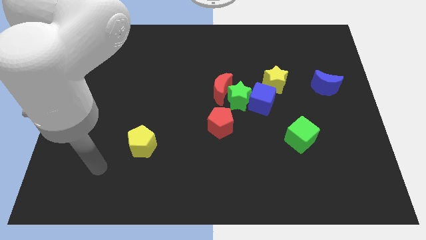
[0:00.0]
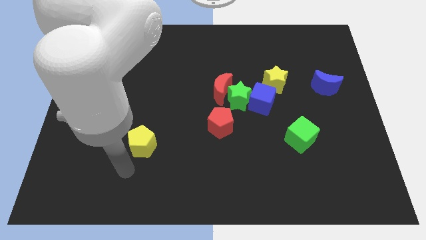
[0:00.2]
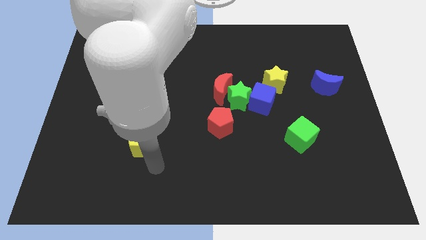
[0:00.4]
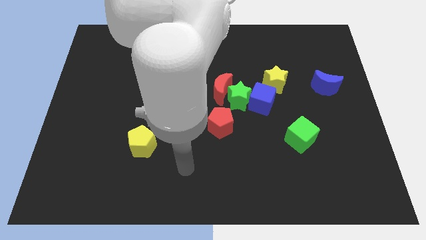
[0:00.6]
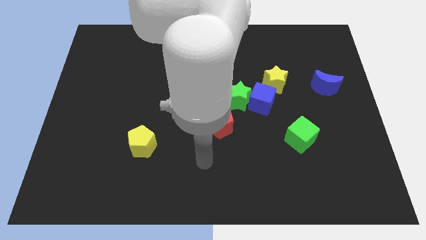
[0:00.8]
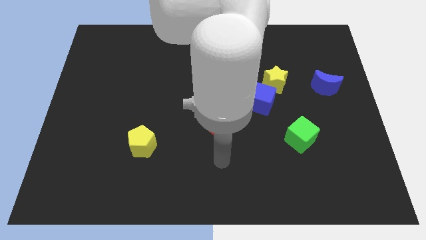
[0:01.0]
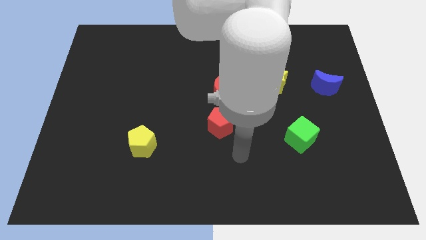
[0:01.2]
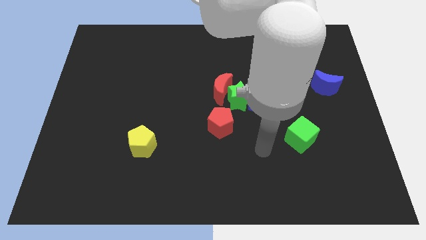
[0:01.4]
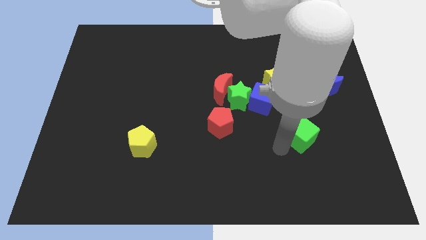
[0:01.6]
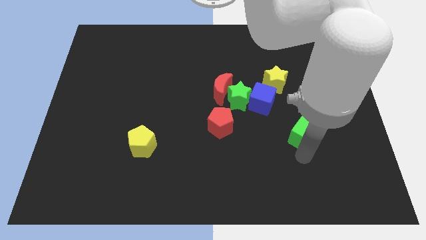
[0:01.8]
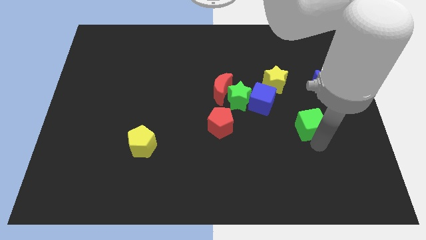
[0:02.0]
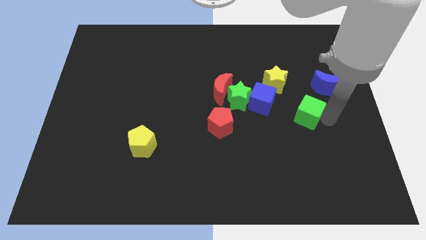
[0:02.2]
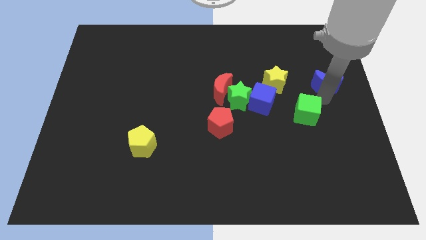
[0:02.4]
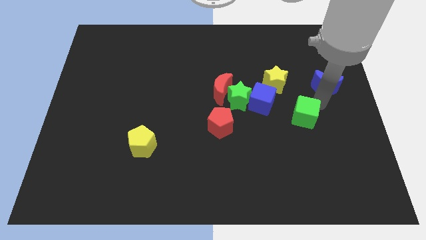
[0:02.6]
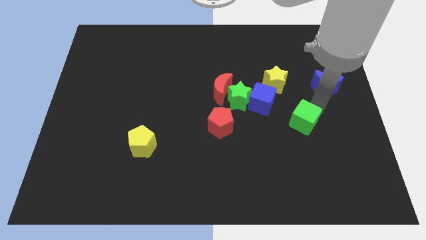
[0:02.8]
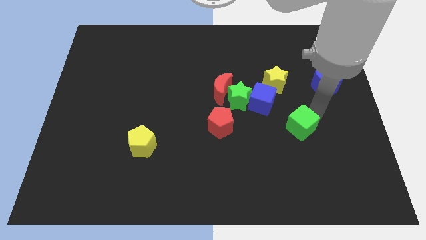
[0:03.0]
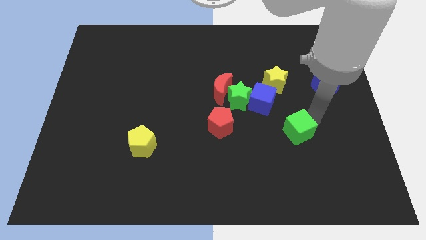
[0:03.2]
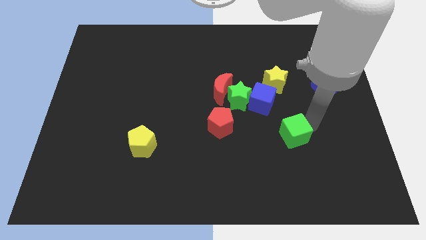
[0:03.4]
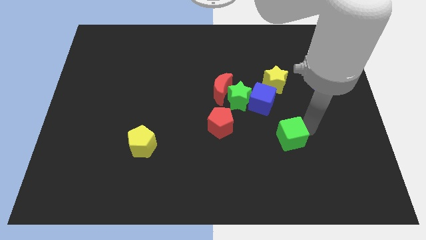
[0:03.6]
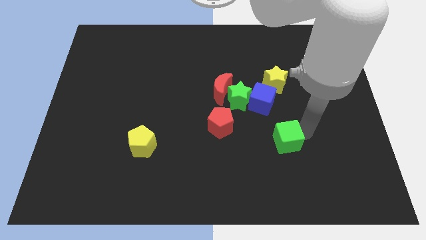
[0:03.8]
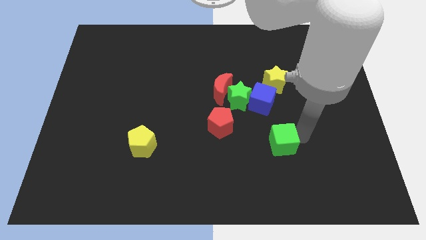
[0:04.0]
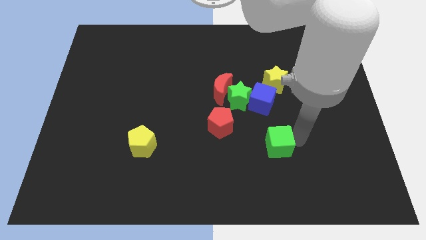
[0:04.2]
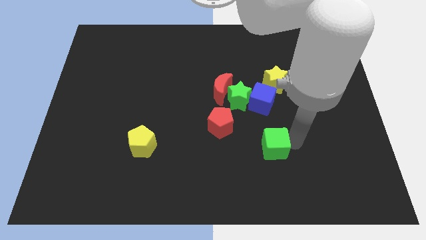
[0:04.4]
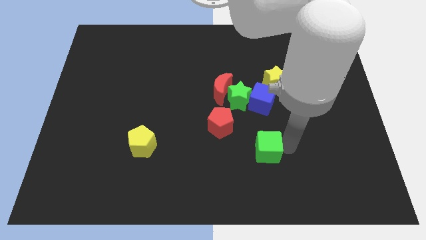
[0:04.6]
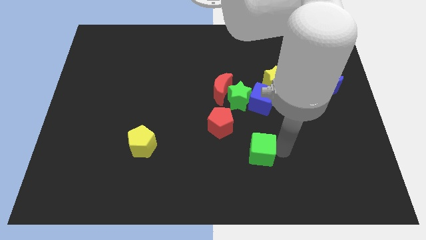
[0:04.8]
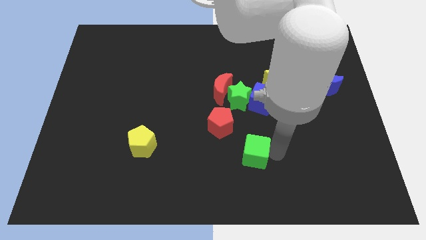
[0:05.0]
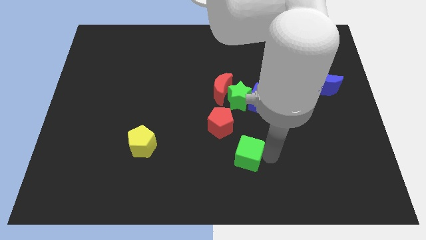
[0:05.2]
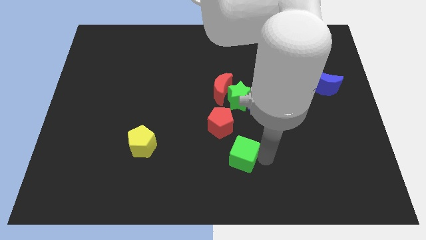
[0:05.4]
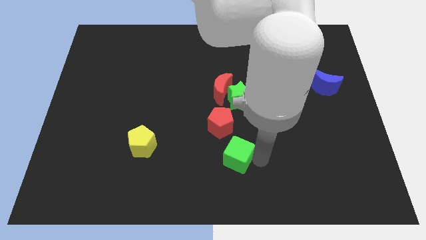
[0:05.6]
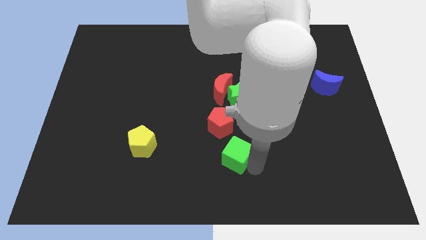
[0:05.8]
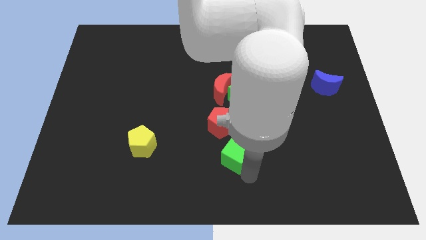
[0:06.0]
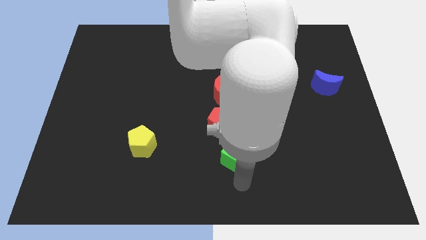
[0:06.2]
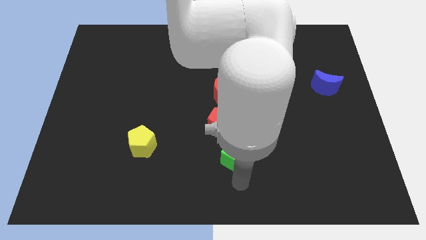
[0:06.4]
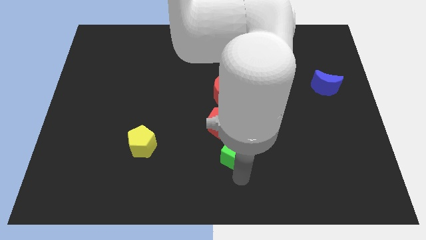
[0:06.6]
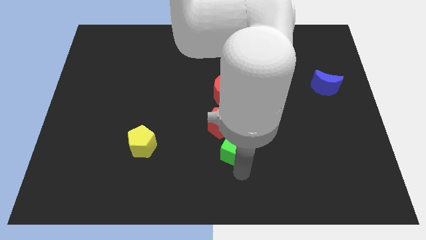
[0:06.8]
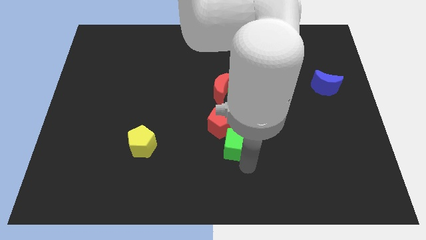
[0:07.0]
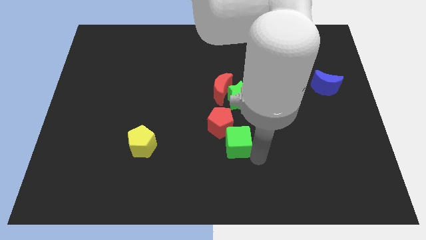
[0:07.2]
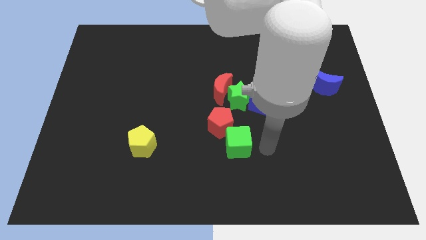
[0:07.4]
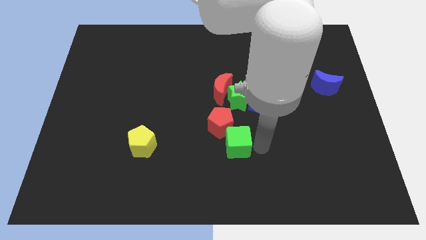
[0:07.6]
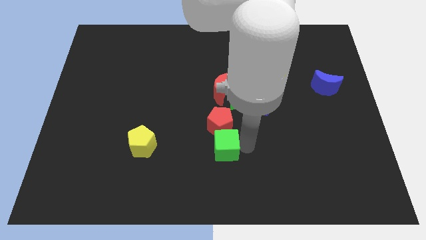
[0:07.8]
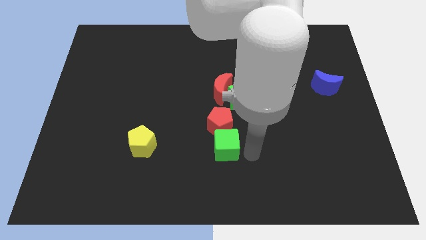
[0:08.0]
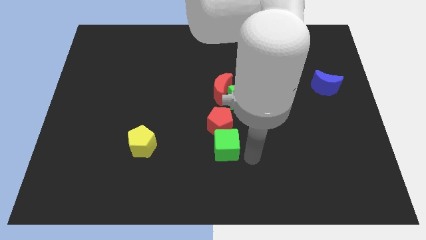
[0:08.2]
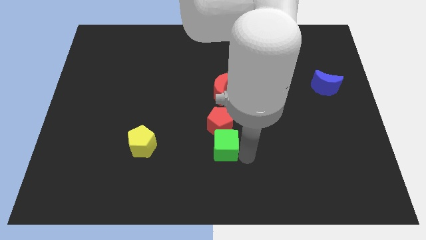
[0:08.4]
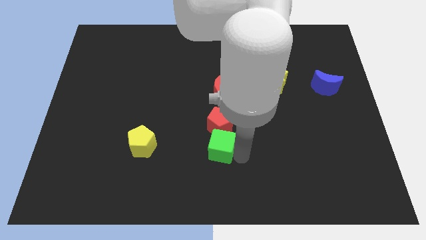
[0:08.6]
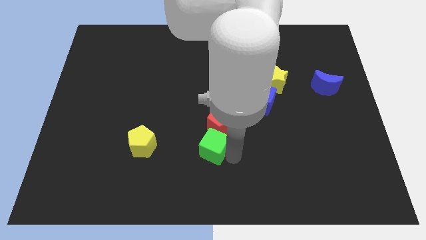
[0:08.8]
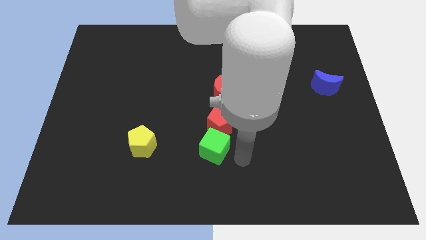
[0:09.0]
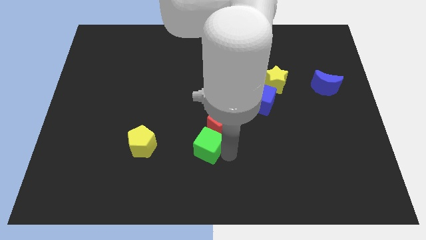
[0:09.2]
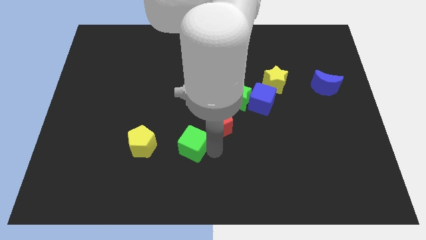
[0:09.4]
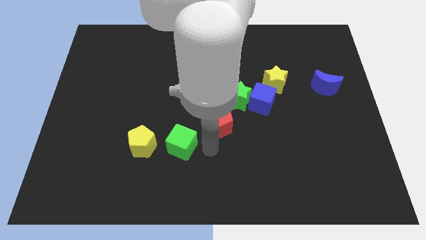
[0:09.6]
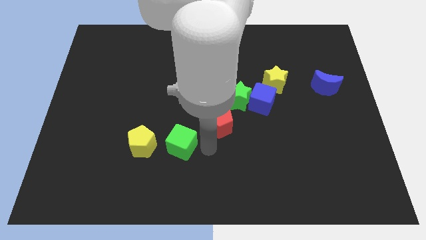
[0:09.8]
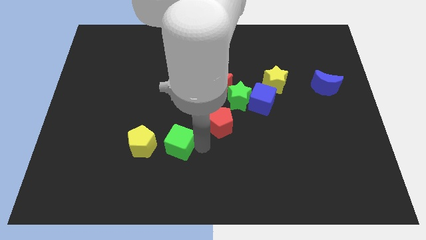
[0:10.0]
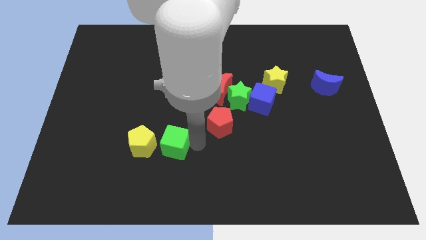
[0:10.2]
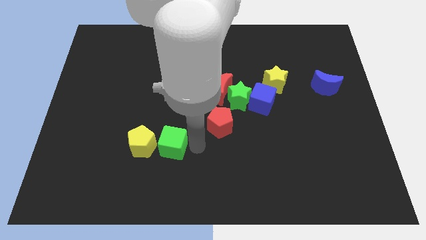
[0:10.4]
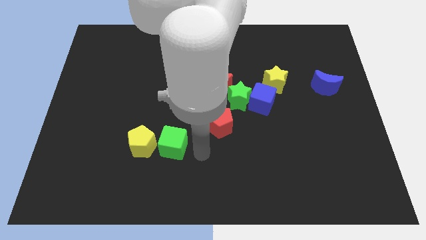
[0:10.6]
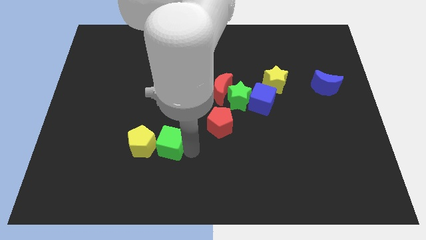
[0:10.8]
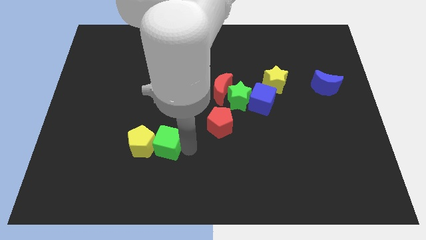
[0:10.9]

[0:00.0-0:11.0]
move the green cube next to the yellow pentagon

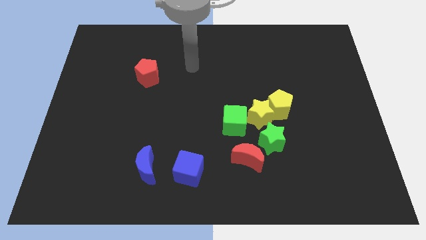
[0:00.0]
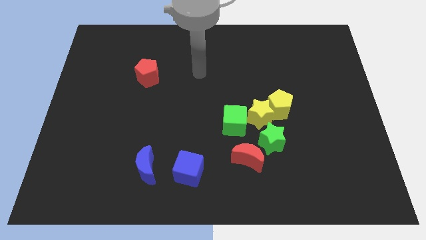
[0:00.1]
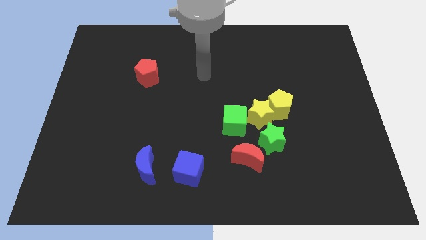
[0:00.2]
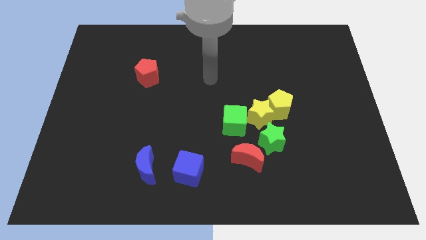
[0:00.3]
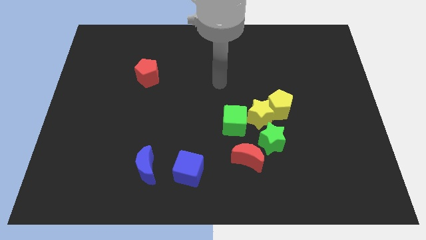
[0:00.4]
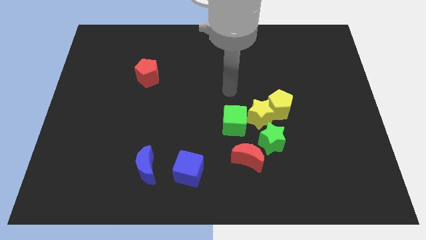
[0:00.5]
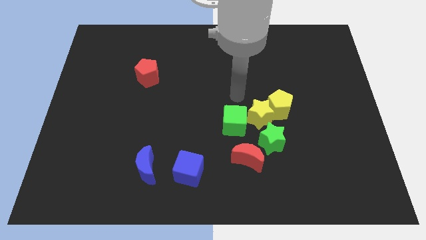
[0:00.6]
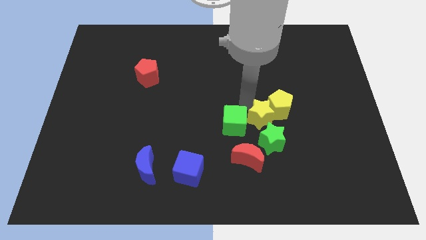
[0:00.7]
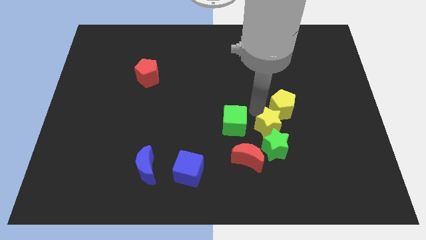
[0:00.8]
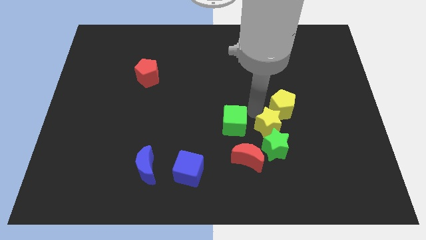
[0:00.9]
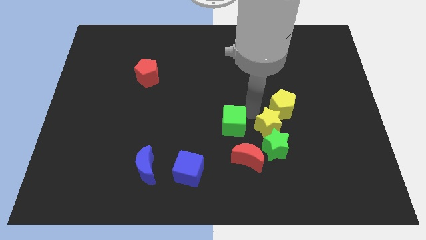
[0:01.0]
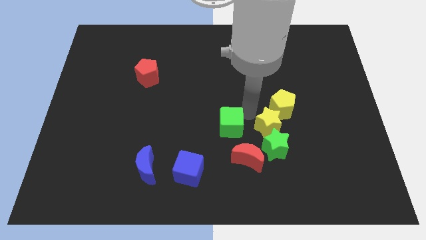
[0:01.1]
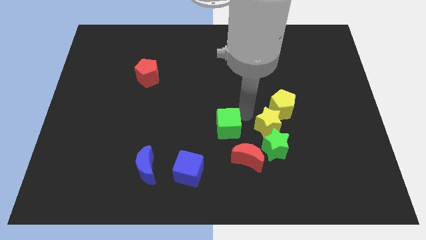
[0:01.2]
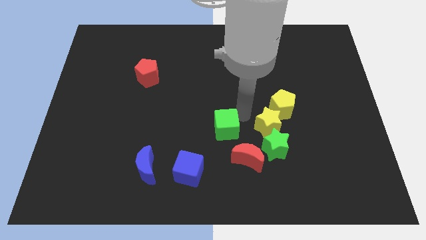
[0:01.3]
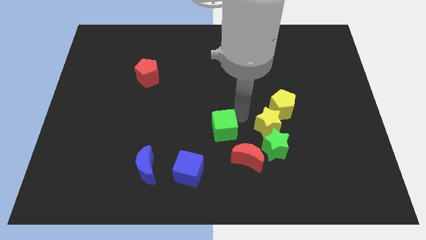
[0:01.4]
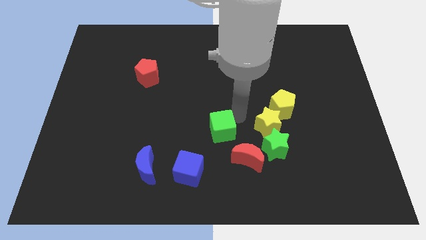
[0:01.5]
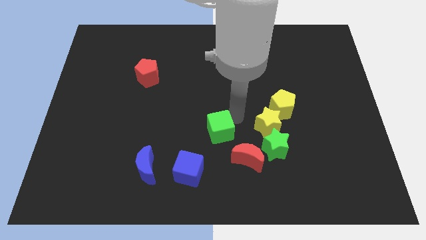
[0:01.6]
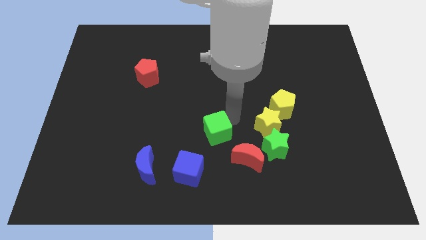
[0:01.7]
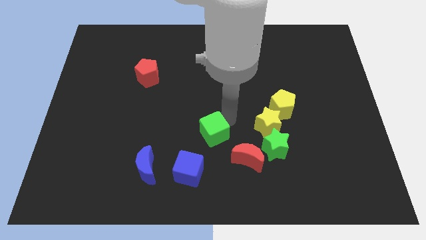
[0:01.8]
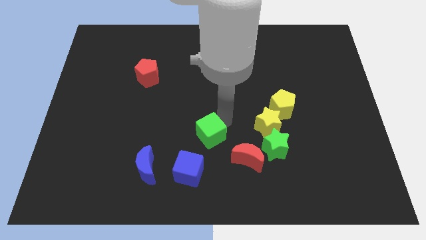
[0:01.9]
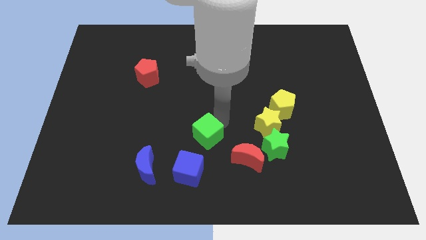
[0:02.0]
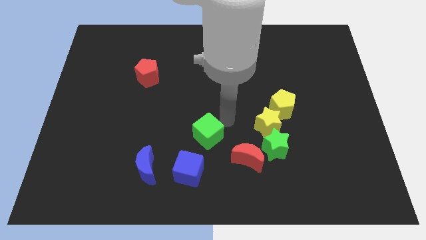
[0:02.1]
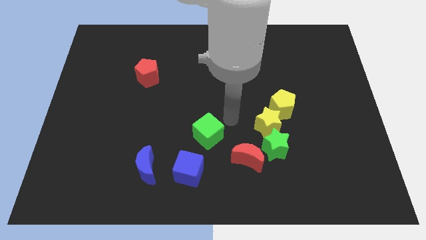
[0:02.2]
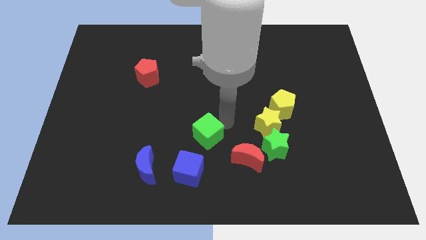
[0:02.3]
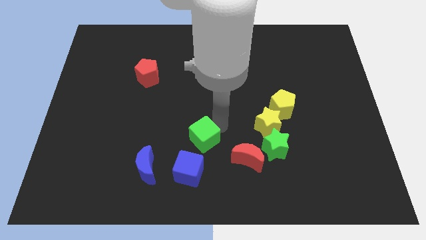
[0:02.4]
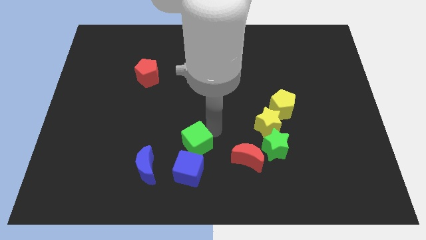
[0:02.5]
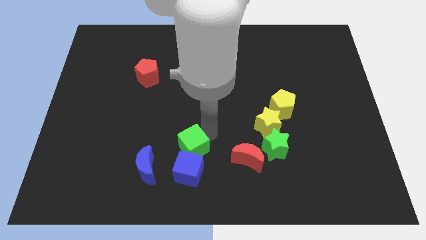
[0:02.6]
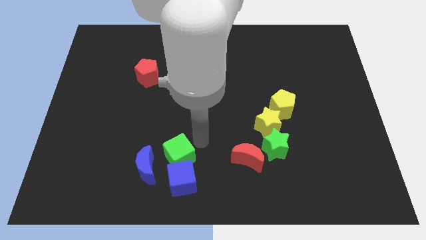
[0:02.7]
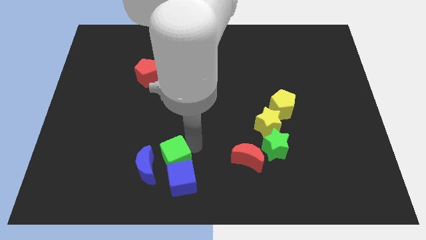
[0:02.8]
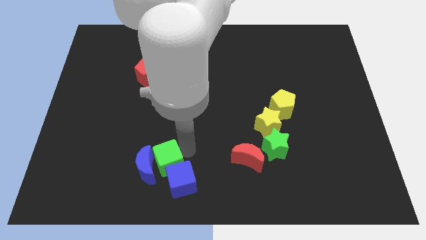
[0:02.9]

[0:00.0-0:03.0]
put the green cube towards the blue moon
